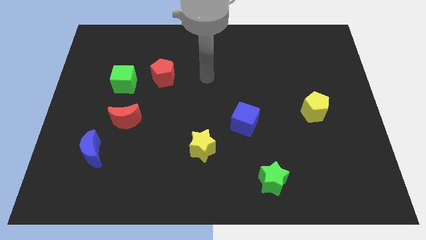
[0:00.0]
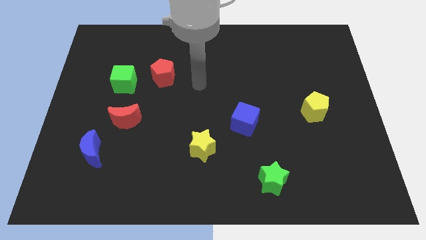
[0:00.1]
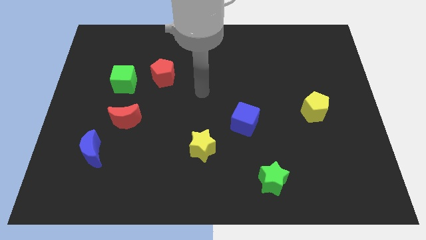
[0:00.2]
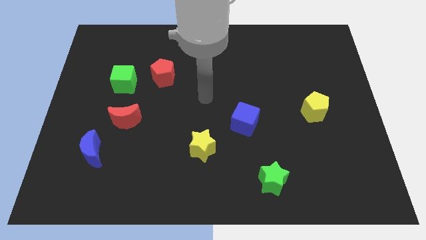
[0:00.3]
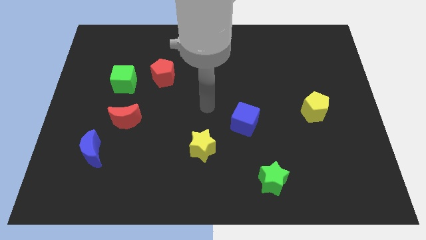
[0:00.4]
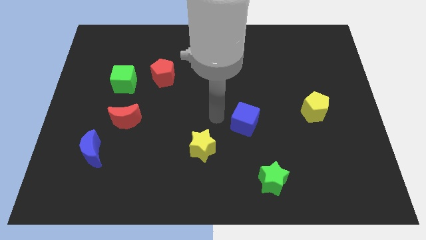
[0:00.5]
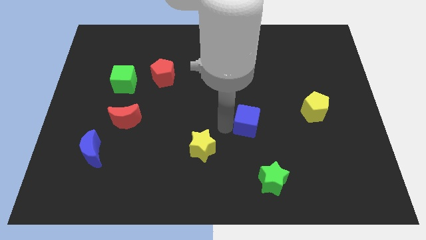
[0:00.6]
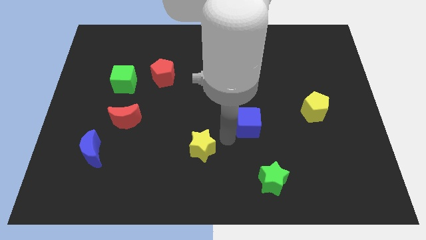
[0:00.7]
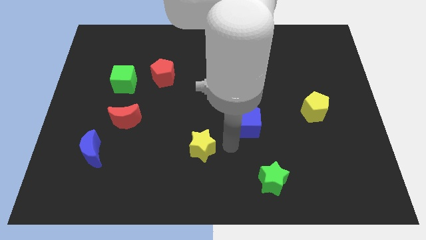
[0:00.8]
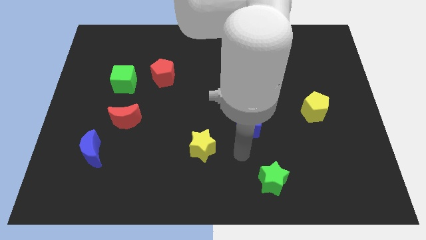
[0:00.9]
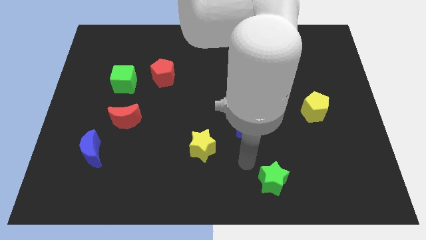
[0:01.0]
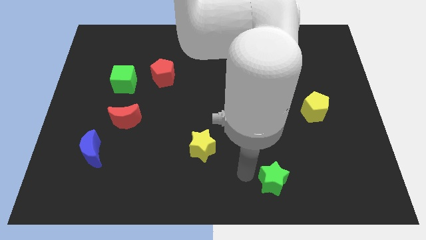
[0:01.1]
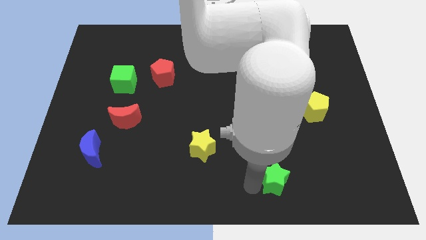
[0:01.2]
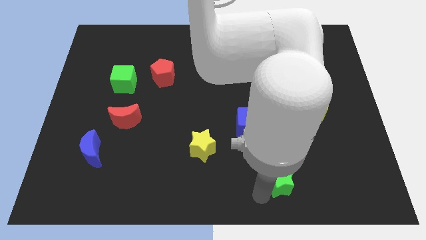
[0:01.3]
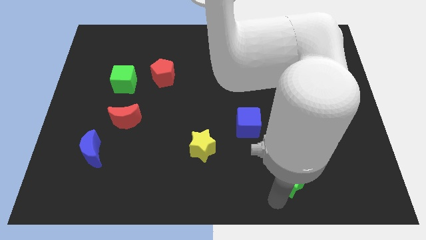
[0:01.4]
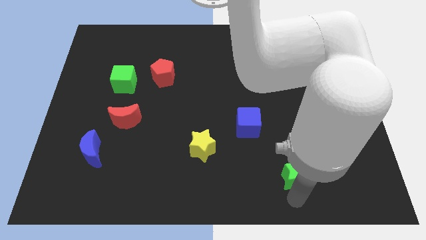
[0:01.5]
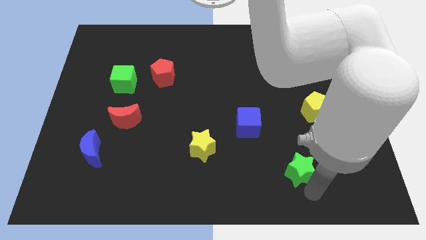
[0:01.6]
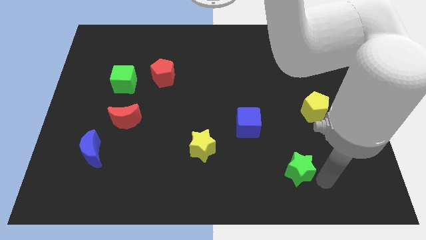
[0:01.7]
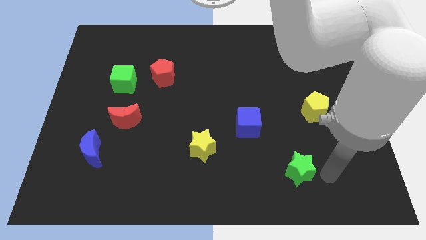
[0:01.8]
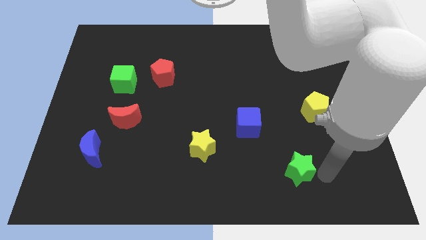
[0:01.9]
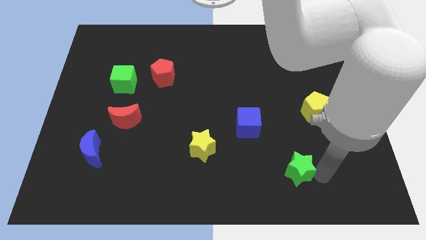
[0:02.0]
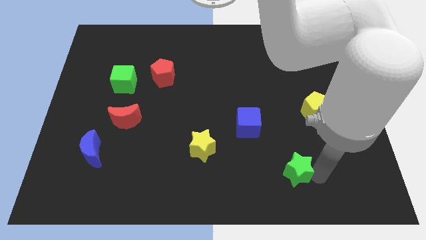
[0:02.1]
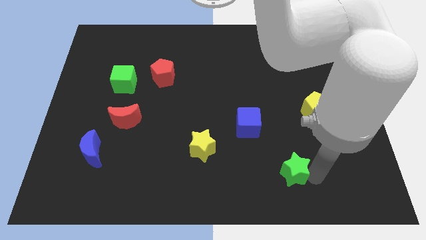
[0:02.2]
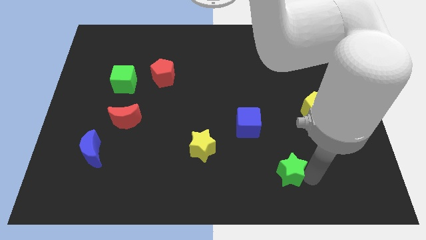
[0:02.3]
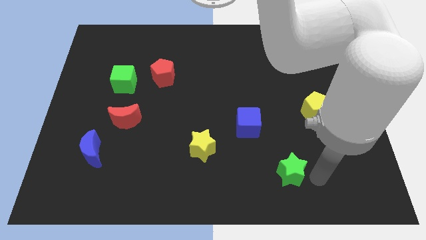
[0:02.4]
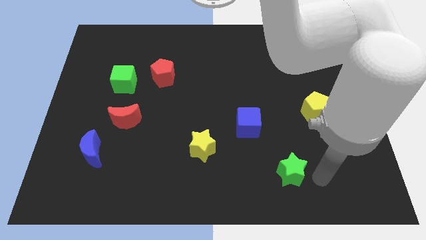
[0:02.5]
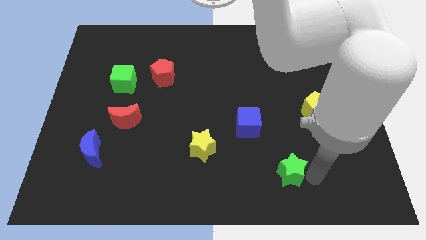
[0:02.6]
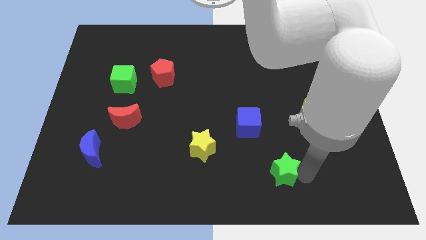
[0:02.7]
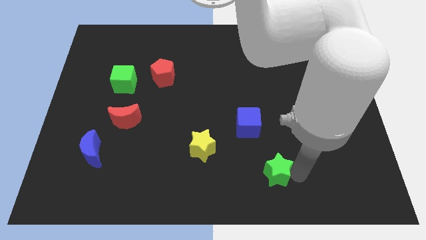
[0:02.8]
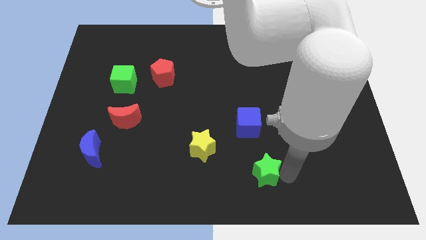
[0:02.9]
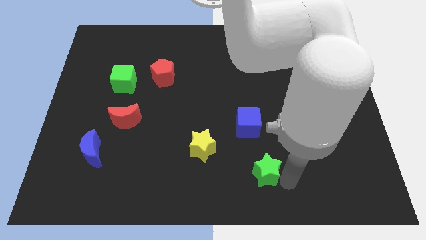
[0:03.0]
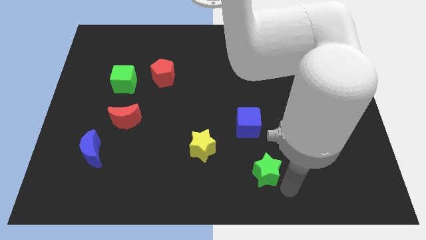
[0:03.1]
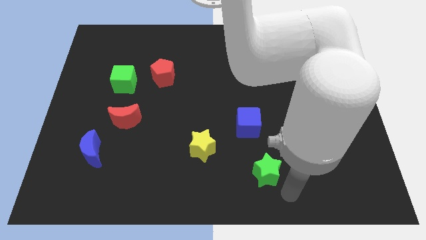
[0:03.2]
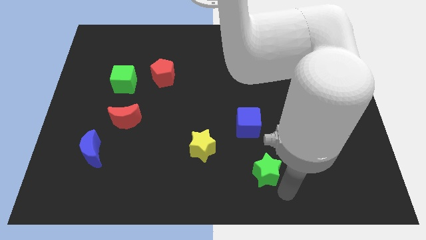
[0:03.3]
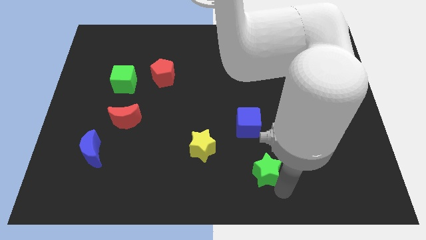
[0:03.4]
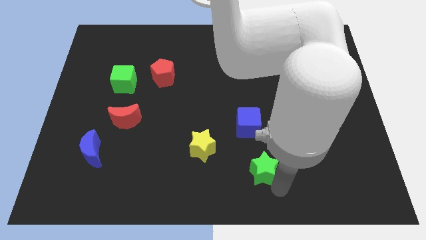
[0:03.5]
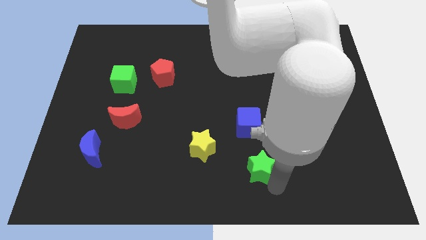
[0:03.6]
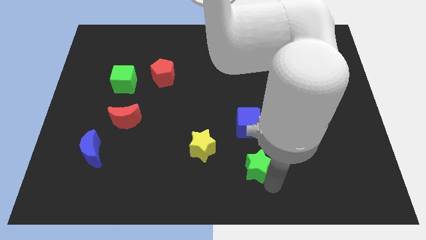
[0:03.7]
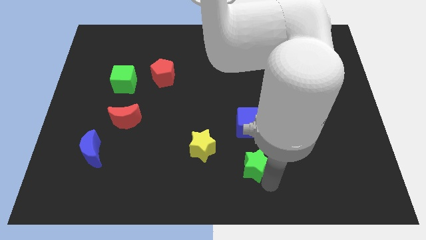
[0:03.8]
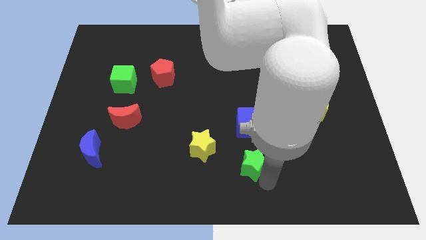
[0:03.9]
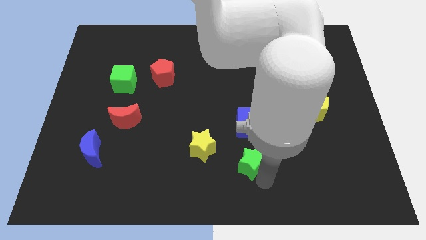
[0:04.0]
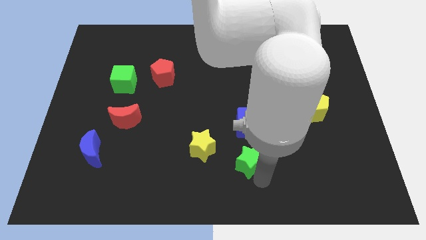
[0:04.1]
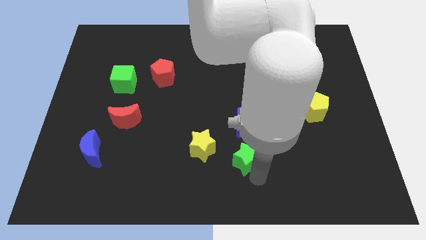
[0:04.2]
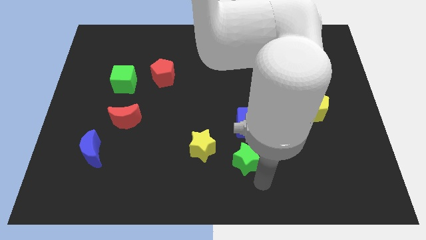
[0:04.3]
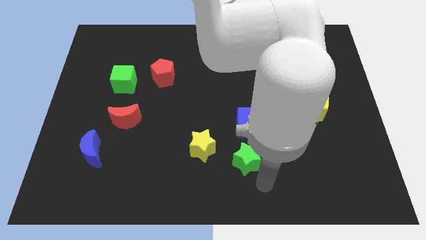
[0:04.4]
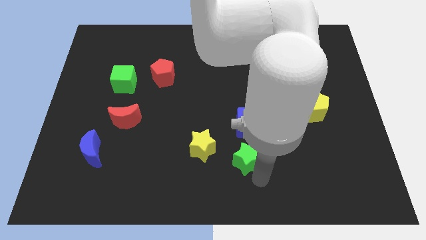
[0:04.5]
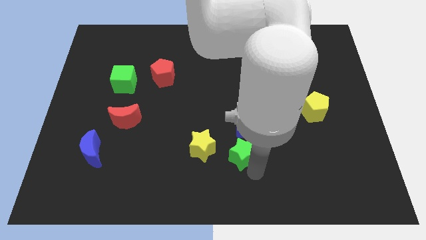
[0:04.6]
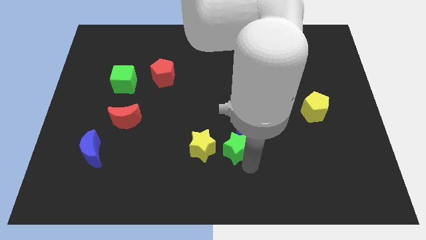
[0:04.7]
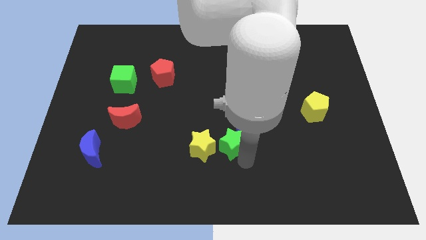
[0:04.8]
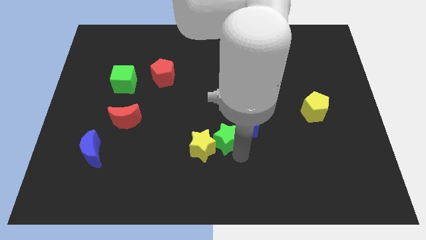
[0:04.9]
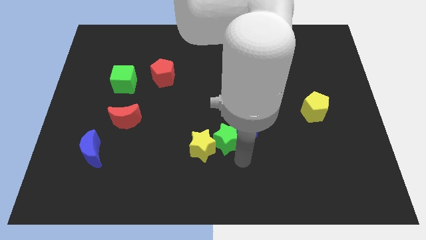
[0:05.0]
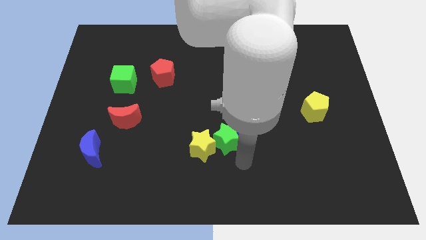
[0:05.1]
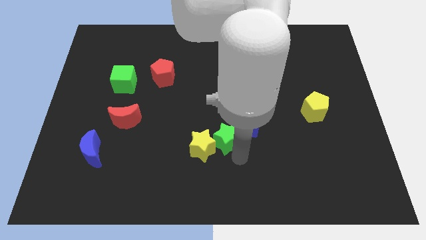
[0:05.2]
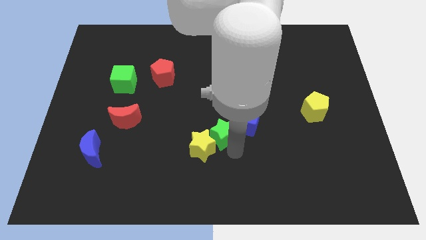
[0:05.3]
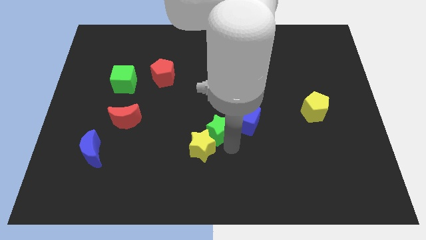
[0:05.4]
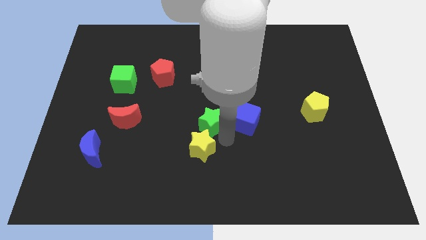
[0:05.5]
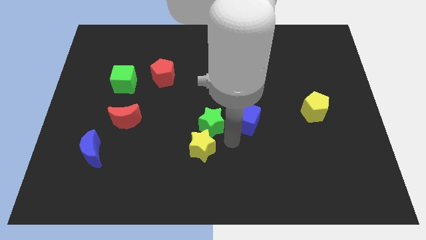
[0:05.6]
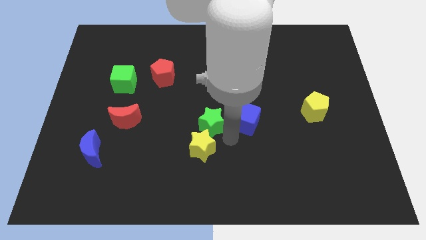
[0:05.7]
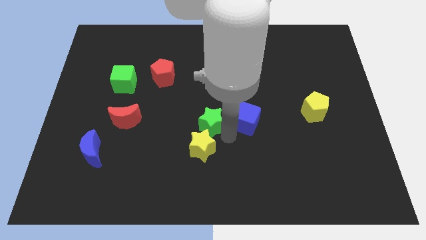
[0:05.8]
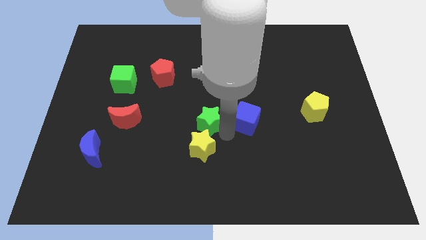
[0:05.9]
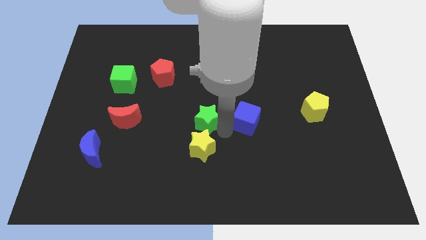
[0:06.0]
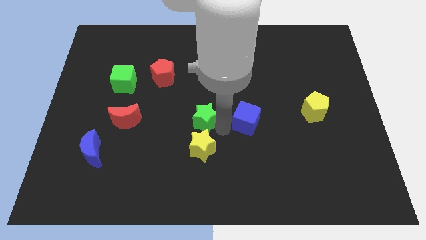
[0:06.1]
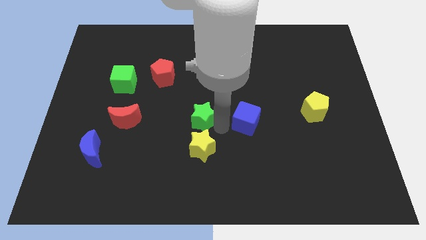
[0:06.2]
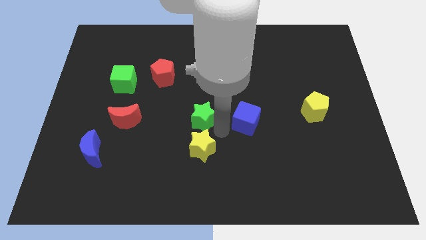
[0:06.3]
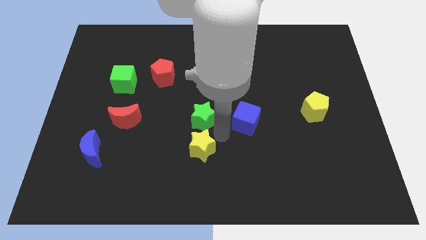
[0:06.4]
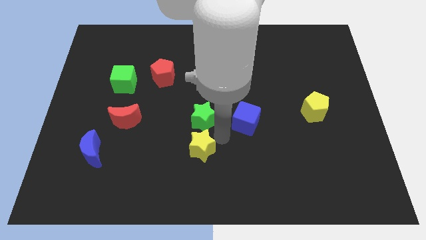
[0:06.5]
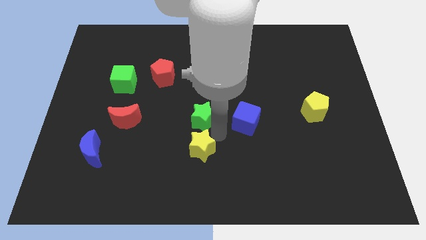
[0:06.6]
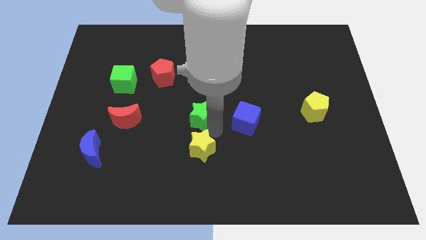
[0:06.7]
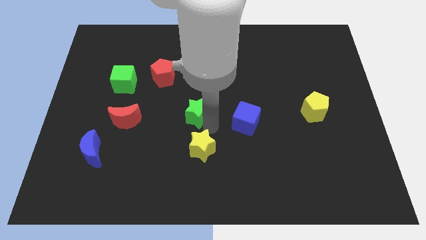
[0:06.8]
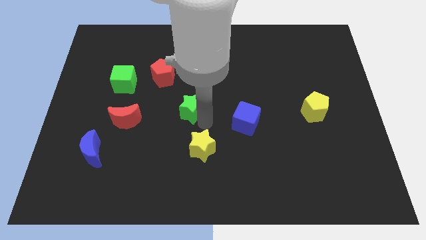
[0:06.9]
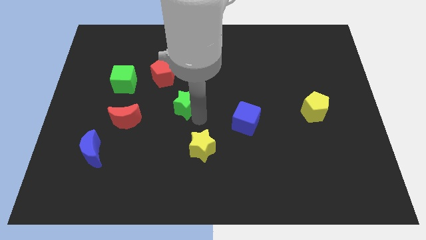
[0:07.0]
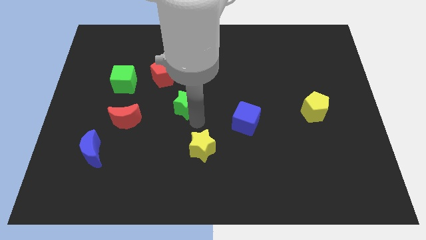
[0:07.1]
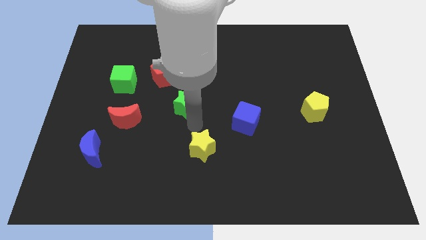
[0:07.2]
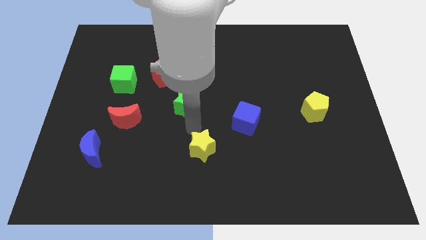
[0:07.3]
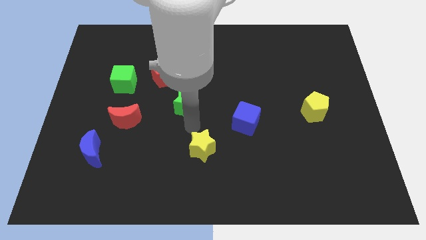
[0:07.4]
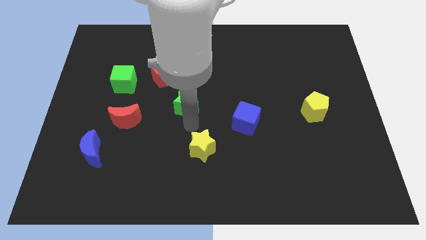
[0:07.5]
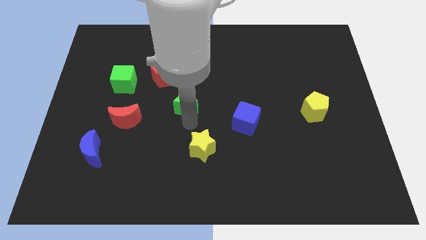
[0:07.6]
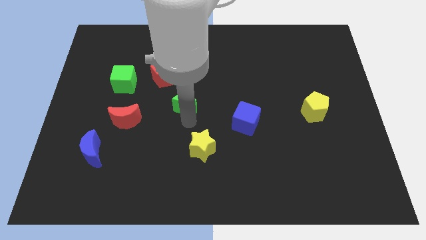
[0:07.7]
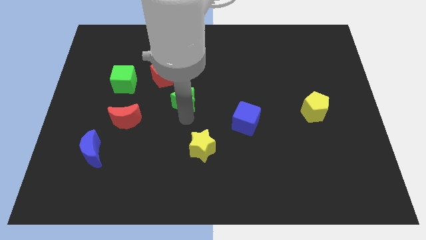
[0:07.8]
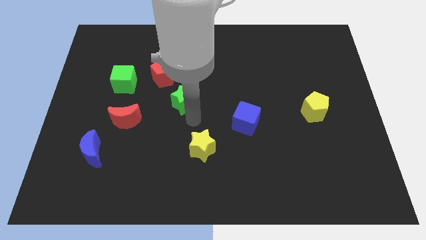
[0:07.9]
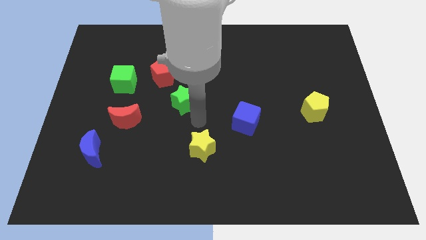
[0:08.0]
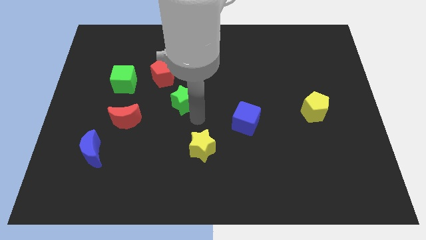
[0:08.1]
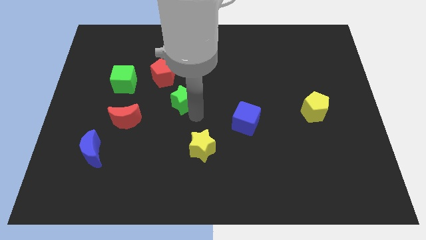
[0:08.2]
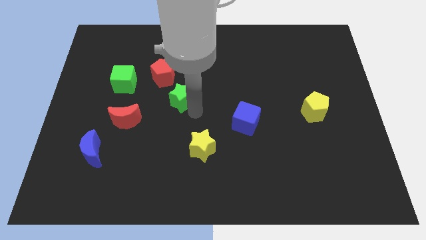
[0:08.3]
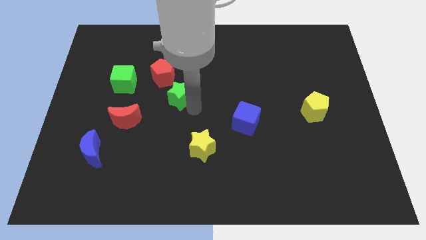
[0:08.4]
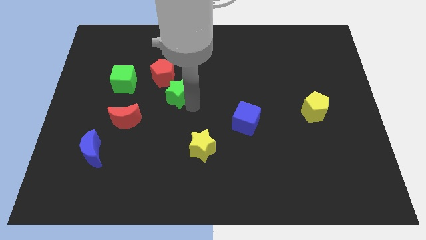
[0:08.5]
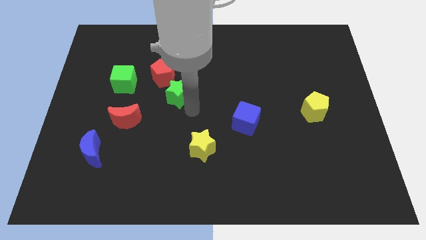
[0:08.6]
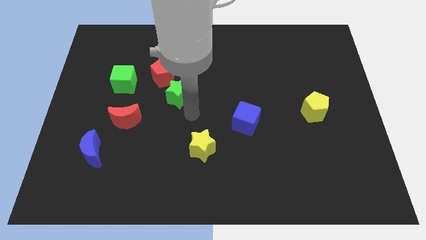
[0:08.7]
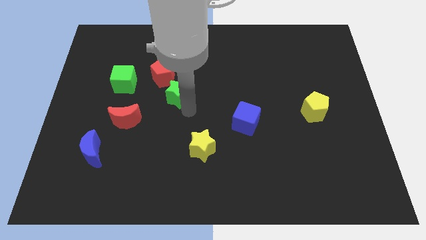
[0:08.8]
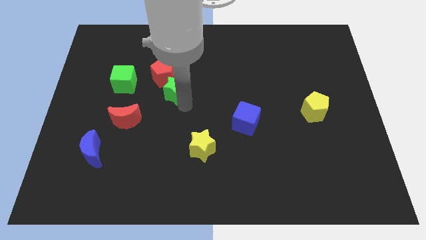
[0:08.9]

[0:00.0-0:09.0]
slide the green star towards the red pentagon
